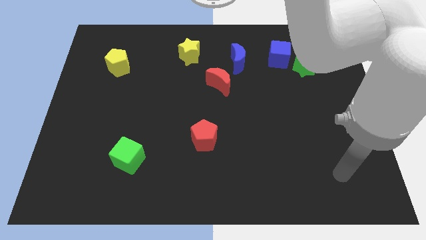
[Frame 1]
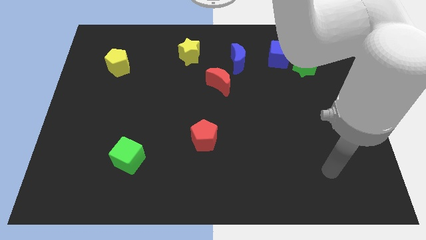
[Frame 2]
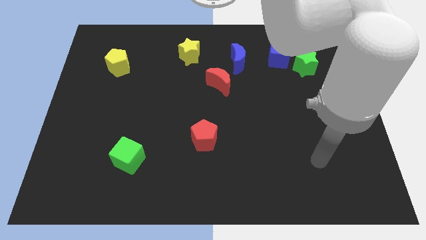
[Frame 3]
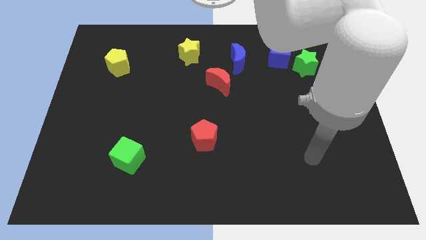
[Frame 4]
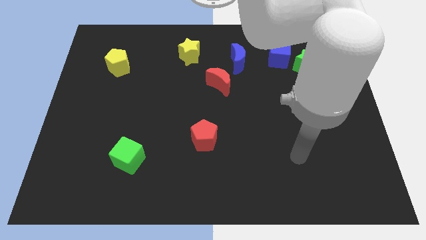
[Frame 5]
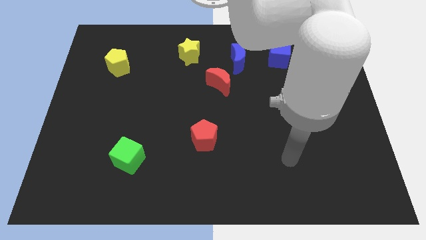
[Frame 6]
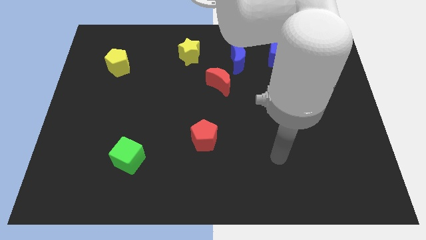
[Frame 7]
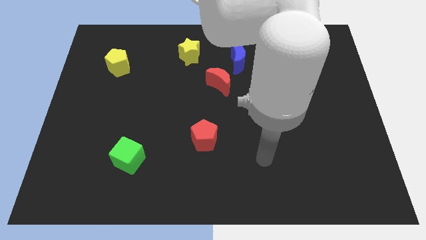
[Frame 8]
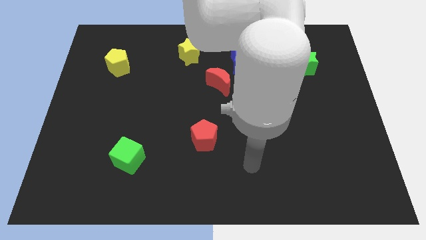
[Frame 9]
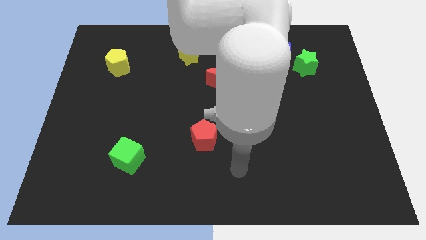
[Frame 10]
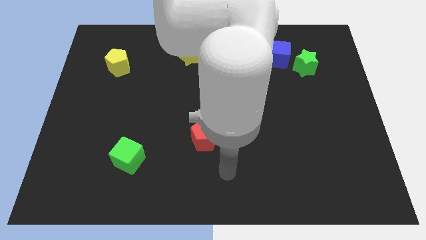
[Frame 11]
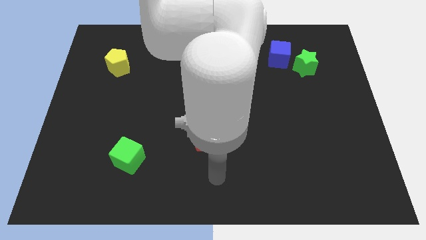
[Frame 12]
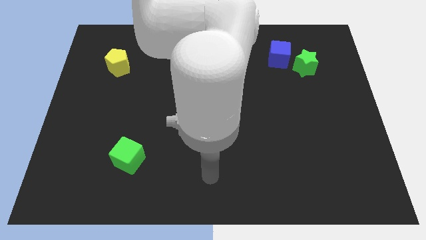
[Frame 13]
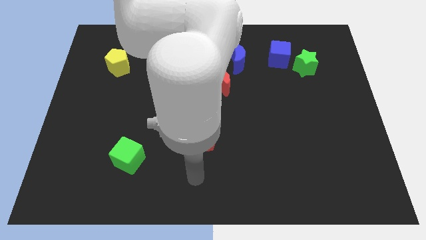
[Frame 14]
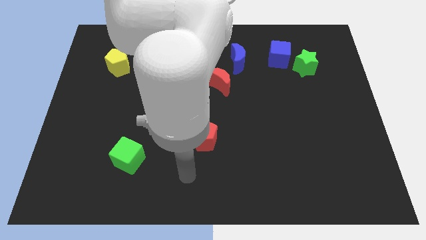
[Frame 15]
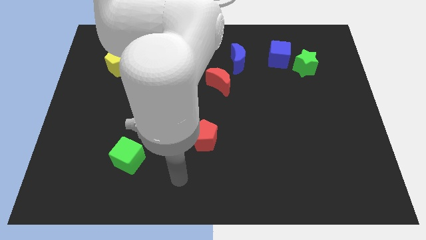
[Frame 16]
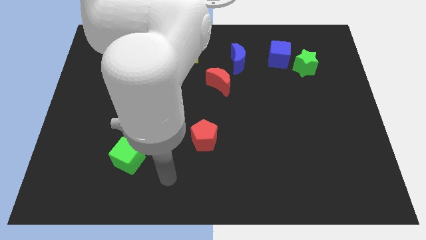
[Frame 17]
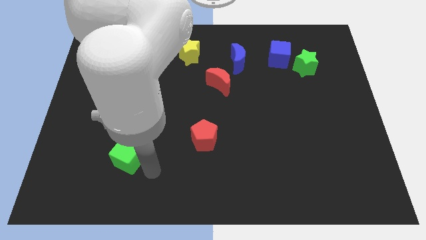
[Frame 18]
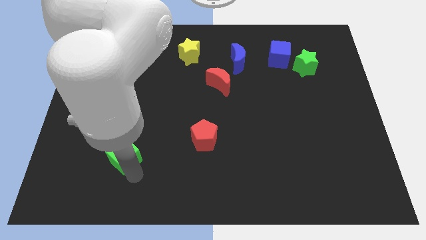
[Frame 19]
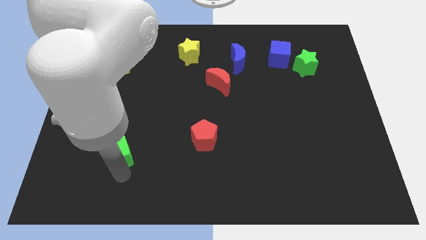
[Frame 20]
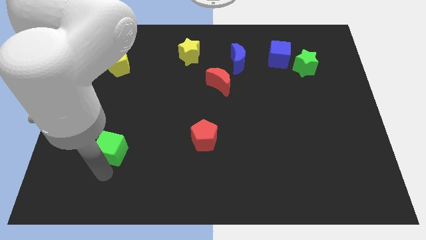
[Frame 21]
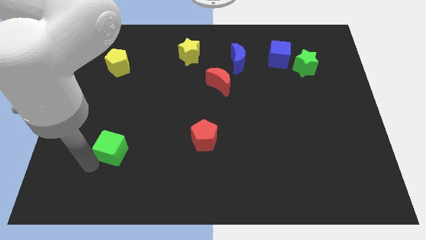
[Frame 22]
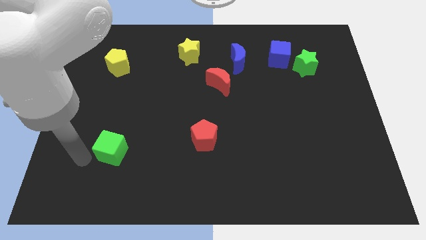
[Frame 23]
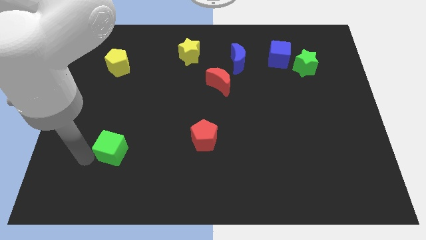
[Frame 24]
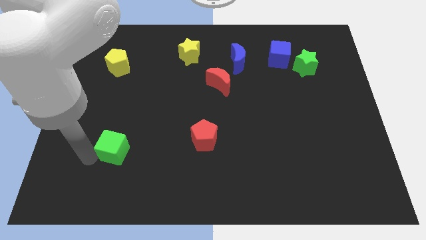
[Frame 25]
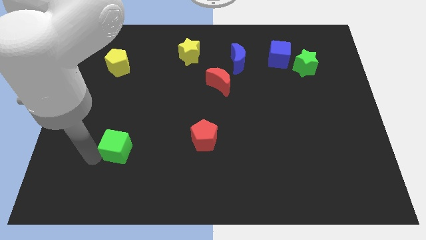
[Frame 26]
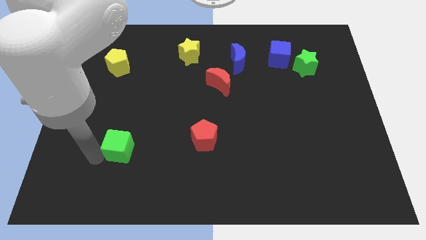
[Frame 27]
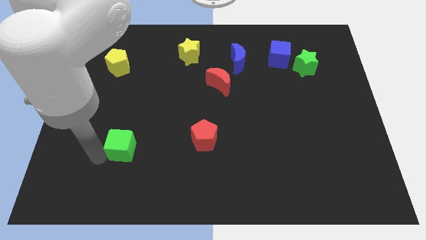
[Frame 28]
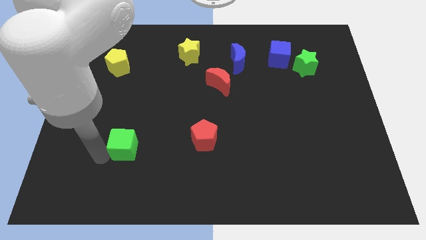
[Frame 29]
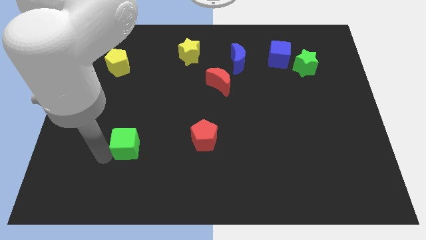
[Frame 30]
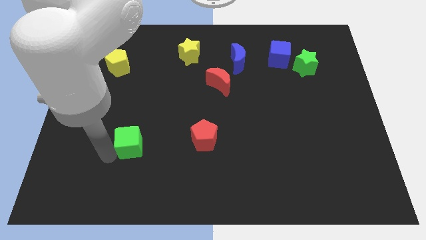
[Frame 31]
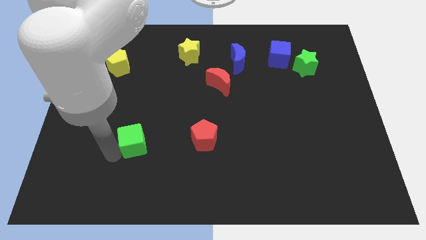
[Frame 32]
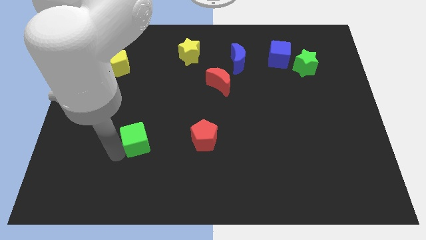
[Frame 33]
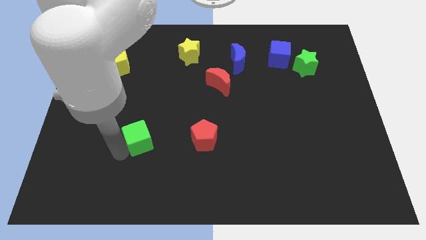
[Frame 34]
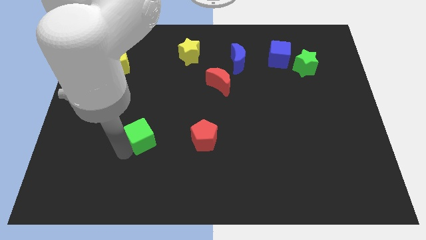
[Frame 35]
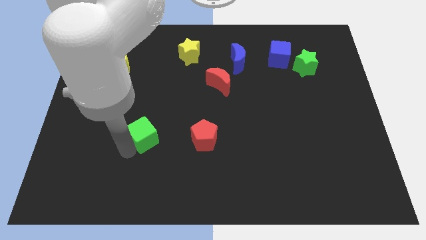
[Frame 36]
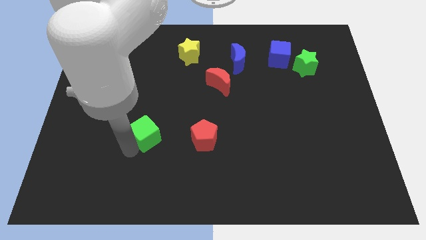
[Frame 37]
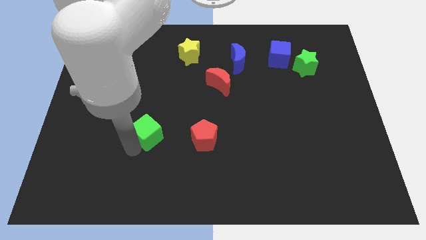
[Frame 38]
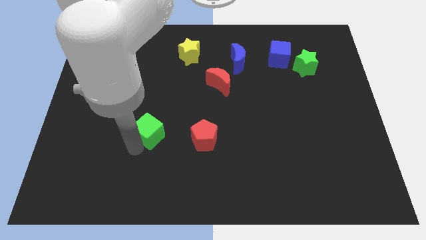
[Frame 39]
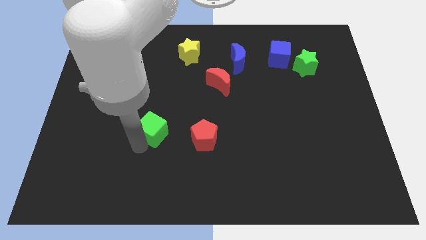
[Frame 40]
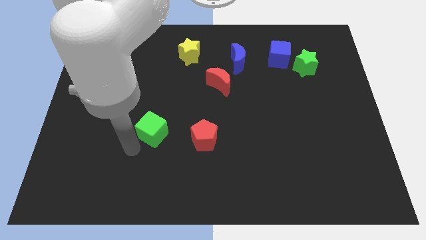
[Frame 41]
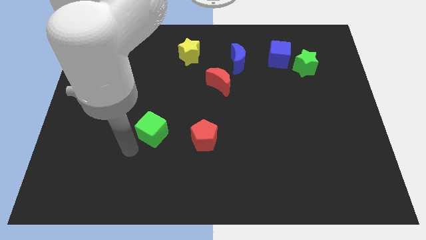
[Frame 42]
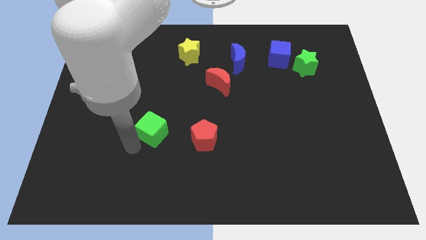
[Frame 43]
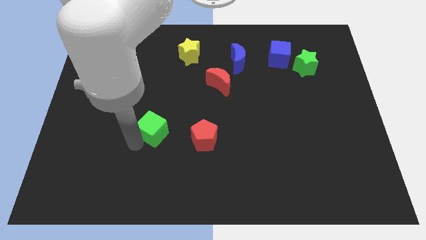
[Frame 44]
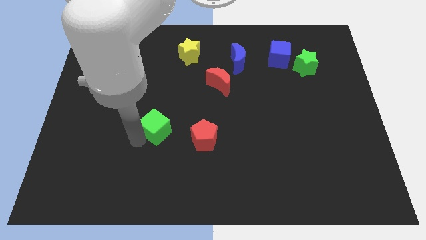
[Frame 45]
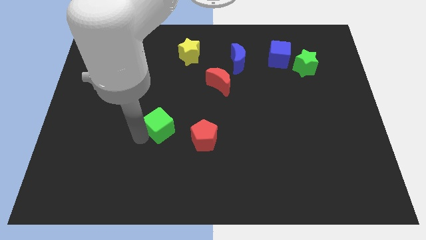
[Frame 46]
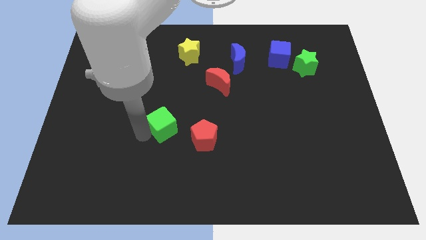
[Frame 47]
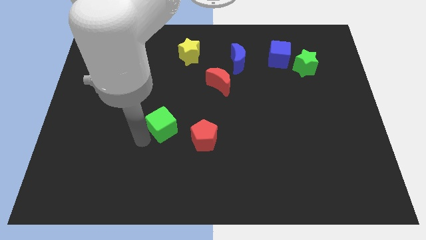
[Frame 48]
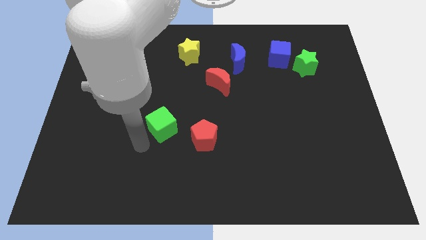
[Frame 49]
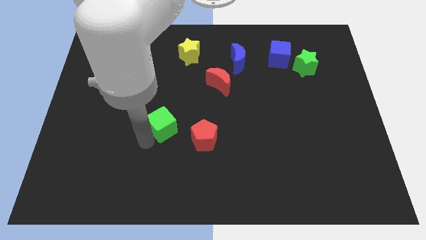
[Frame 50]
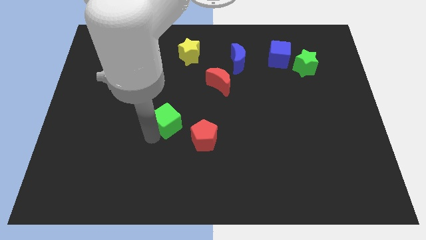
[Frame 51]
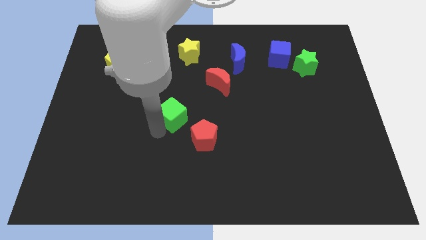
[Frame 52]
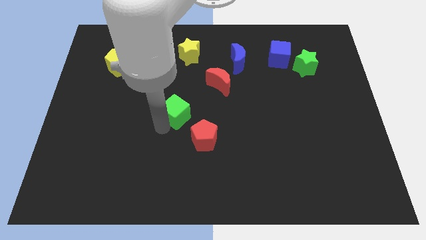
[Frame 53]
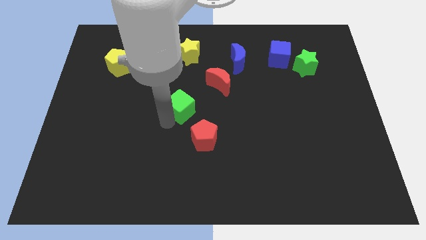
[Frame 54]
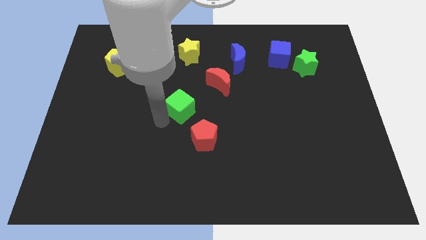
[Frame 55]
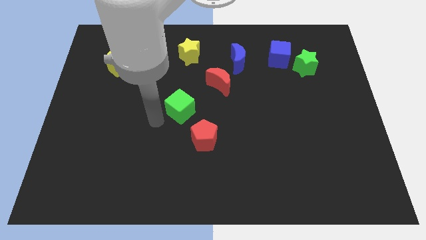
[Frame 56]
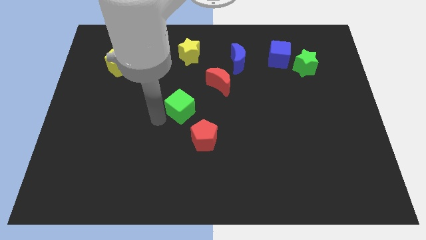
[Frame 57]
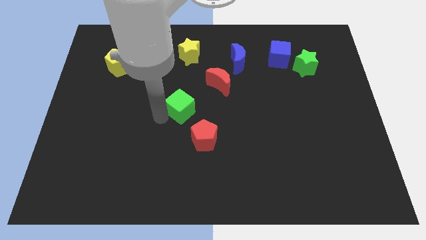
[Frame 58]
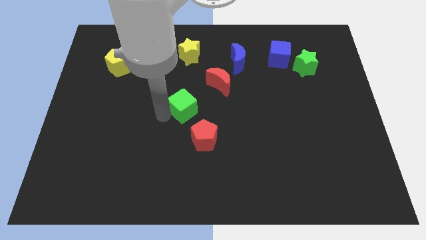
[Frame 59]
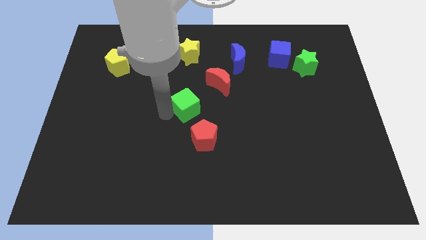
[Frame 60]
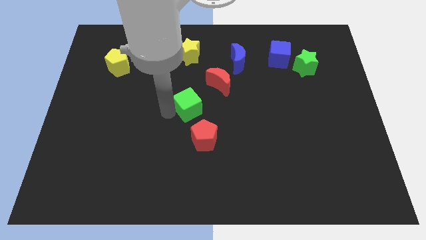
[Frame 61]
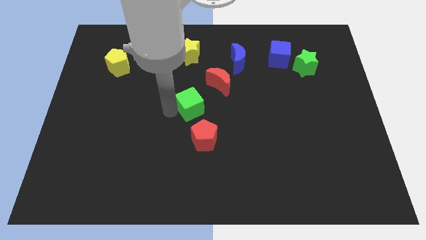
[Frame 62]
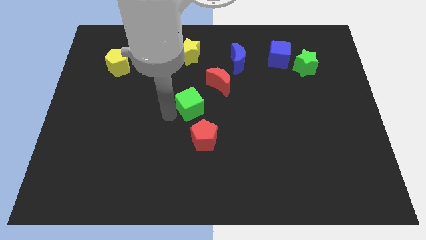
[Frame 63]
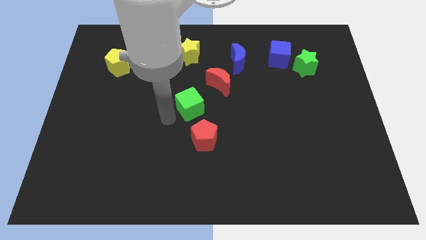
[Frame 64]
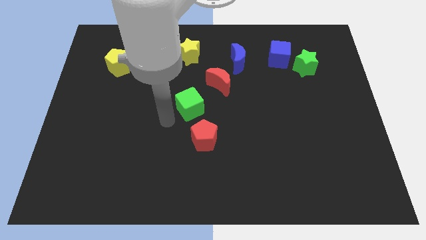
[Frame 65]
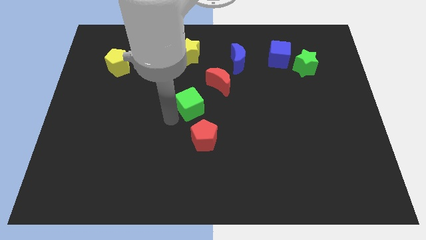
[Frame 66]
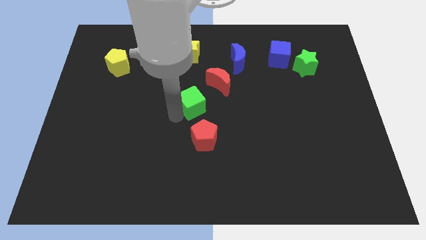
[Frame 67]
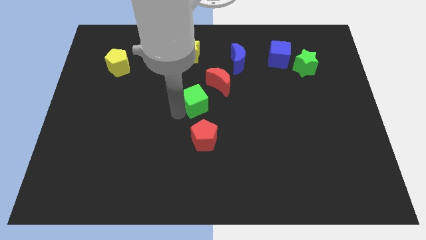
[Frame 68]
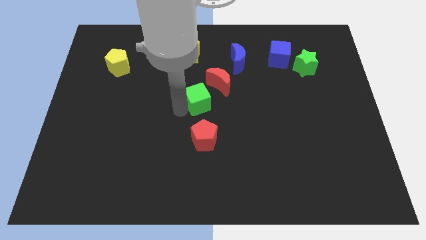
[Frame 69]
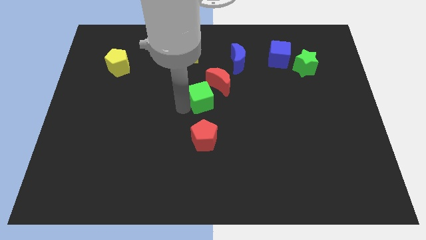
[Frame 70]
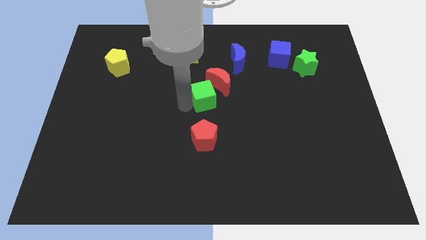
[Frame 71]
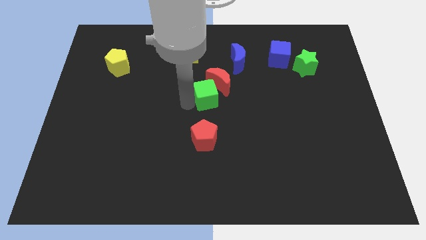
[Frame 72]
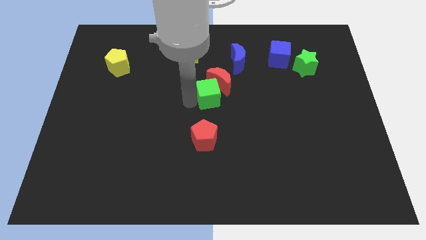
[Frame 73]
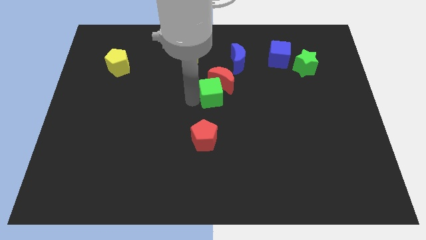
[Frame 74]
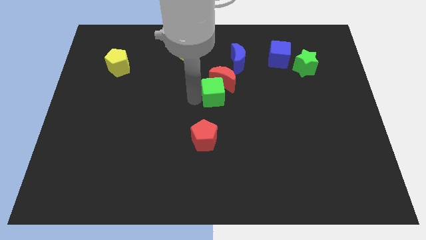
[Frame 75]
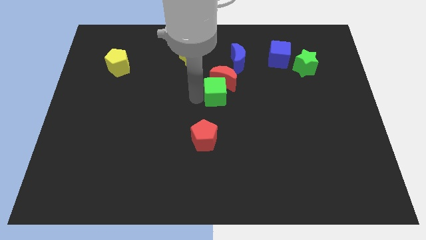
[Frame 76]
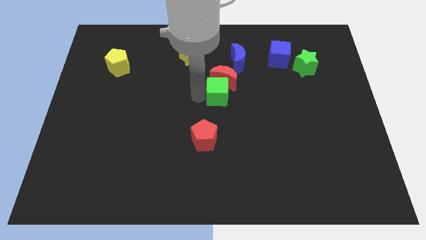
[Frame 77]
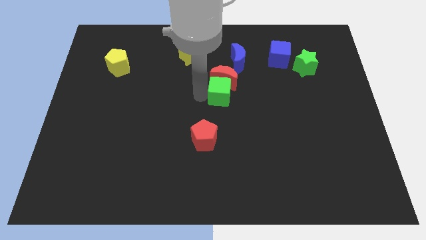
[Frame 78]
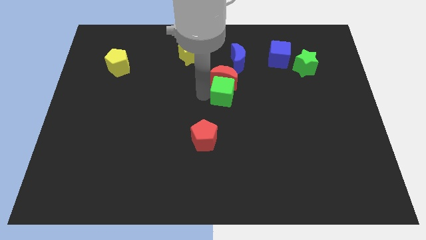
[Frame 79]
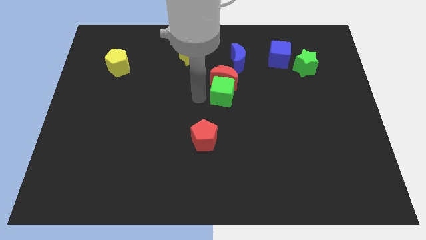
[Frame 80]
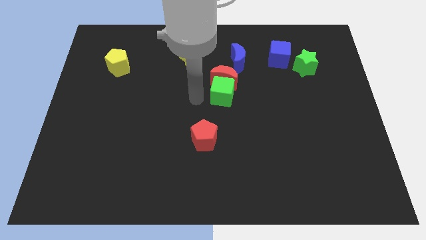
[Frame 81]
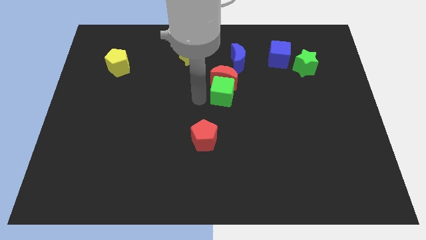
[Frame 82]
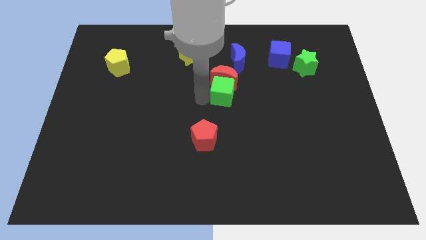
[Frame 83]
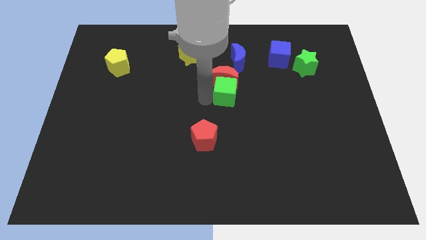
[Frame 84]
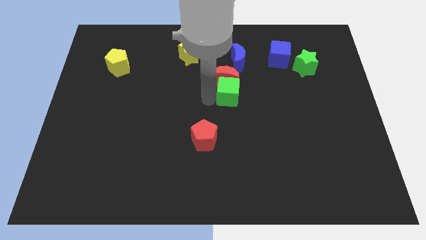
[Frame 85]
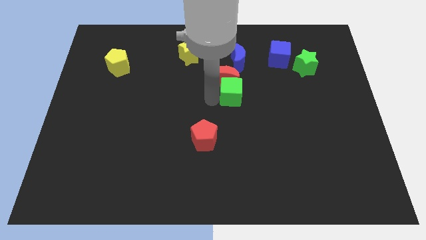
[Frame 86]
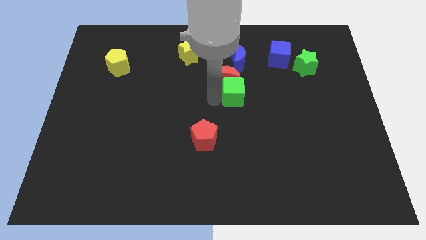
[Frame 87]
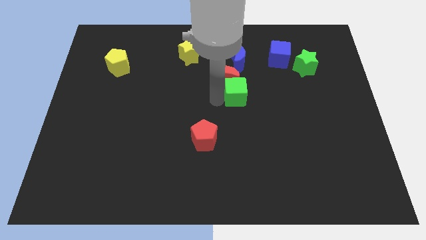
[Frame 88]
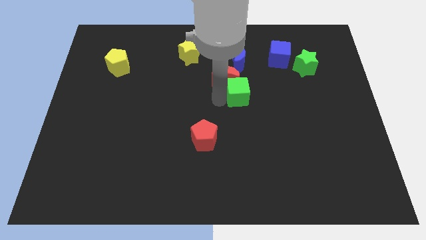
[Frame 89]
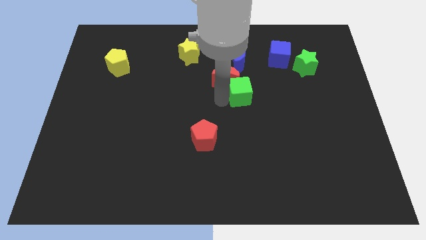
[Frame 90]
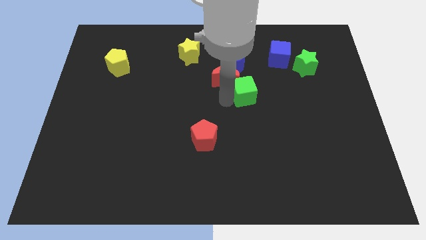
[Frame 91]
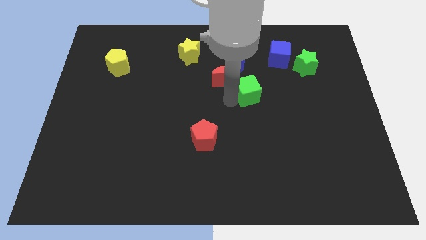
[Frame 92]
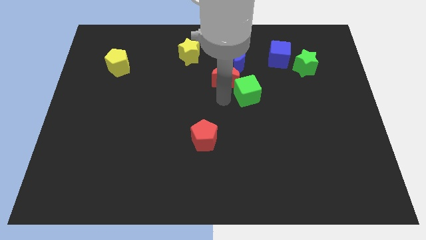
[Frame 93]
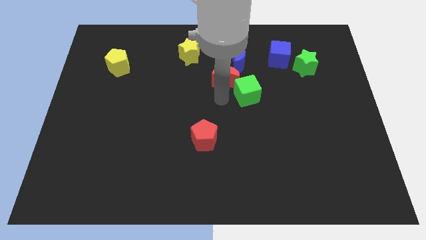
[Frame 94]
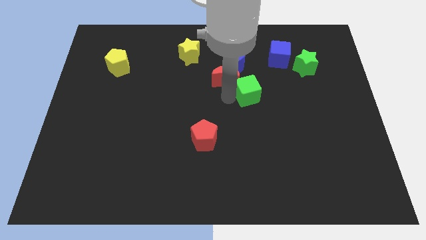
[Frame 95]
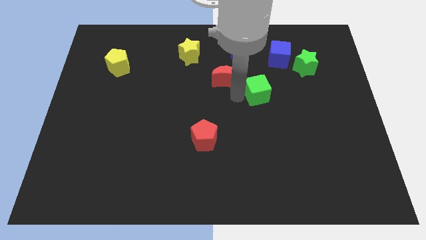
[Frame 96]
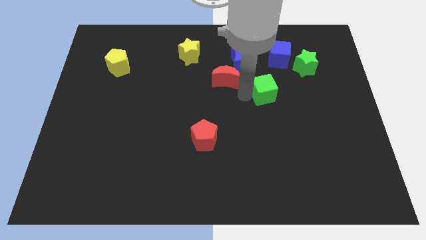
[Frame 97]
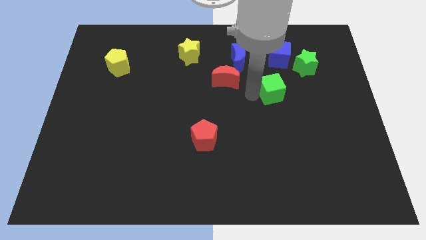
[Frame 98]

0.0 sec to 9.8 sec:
move the green cube to the bottom of the blue cube
